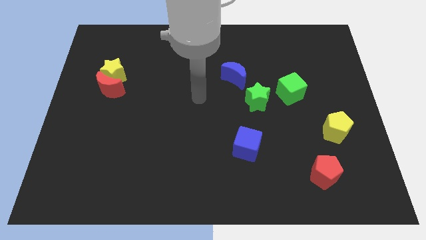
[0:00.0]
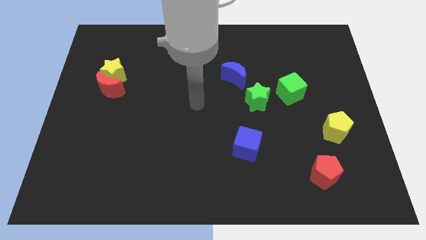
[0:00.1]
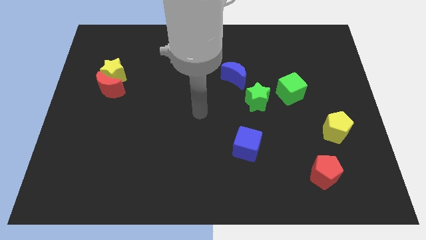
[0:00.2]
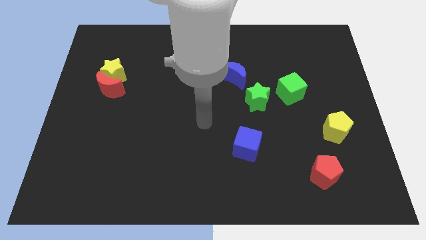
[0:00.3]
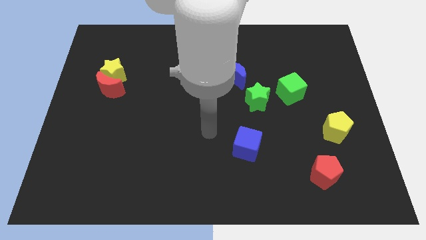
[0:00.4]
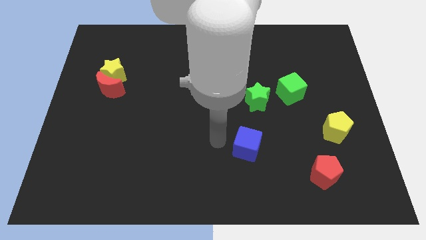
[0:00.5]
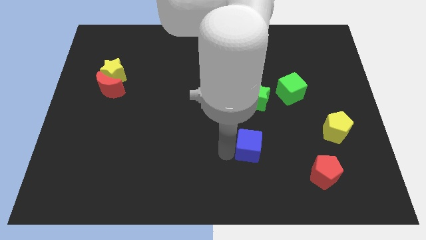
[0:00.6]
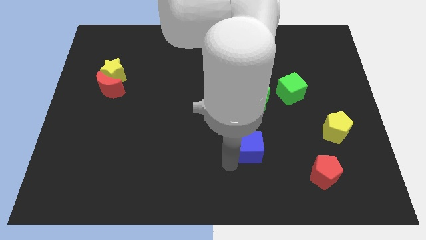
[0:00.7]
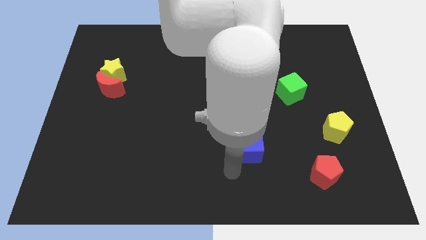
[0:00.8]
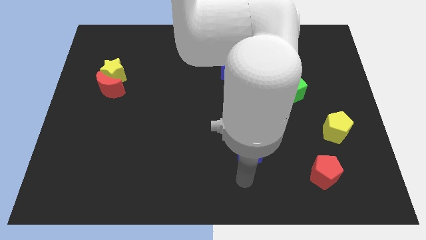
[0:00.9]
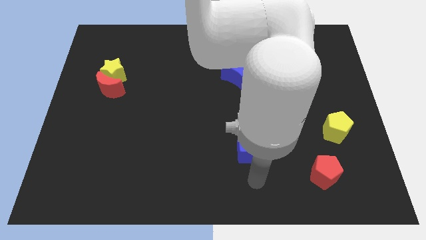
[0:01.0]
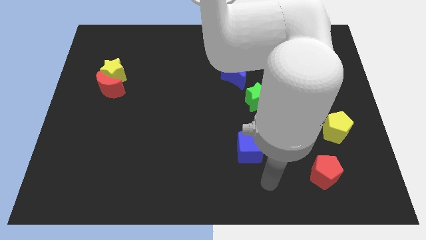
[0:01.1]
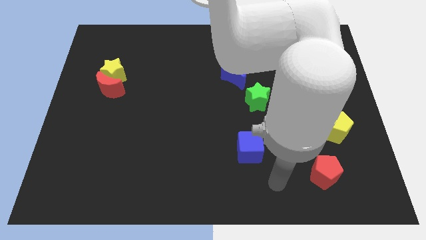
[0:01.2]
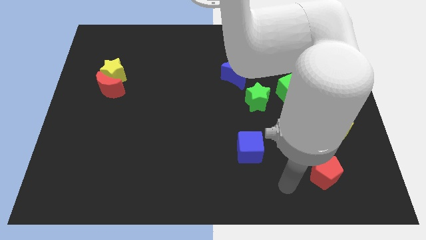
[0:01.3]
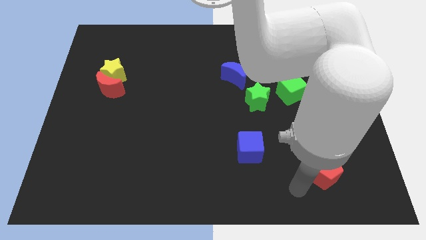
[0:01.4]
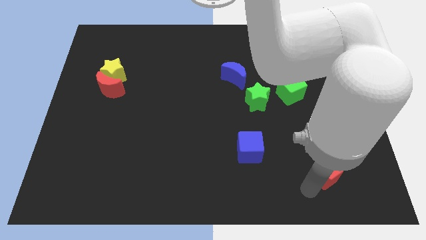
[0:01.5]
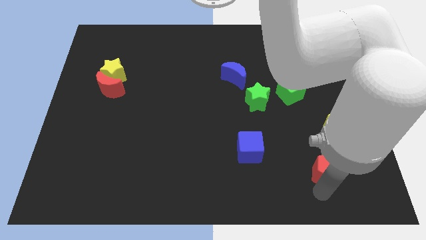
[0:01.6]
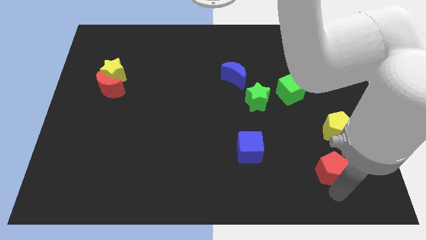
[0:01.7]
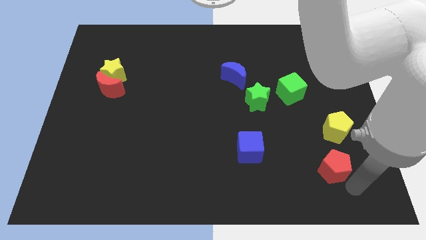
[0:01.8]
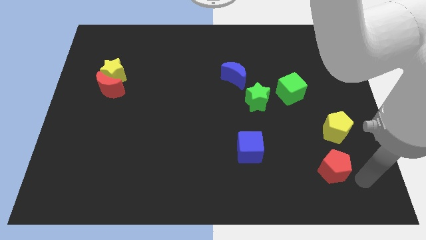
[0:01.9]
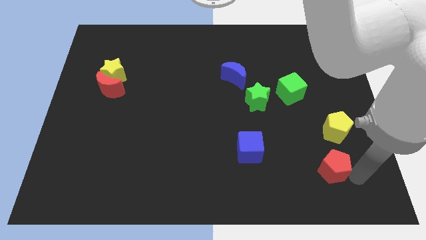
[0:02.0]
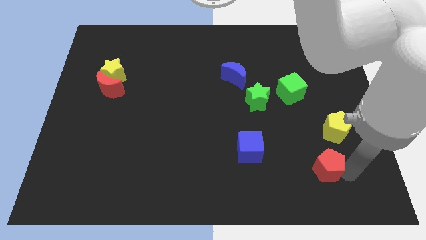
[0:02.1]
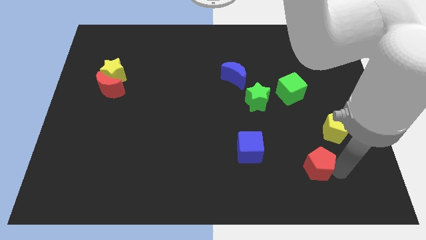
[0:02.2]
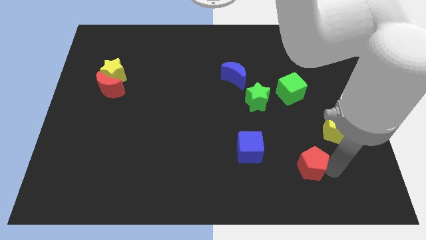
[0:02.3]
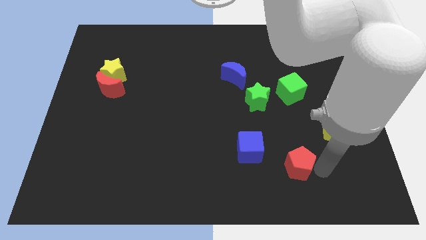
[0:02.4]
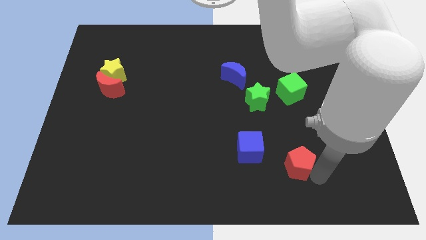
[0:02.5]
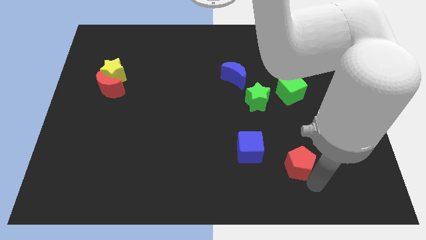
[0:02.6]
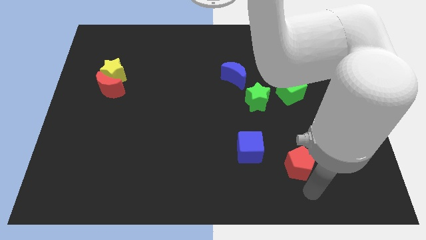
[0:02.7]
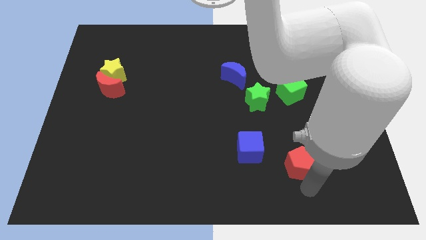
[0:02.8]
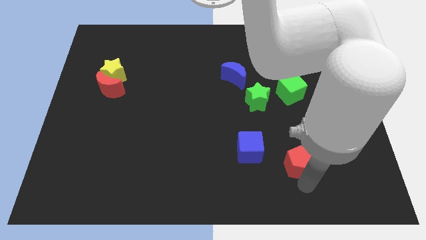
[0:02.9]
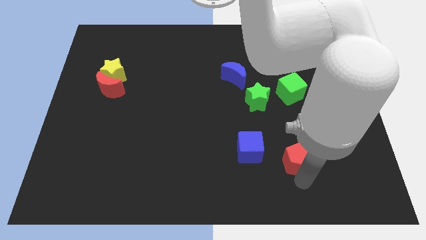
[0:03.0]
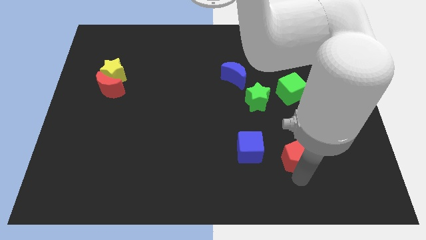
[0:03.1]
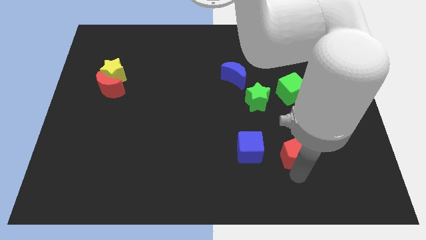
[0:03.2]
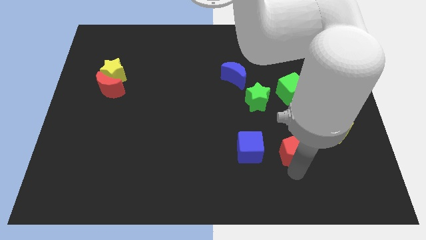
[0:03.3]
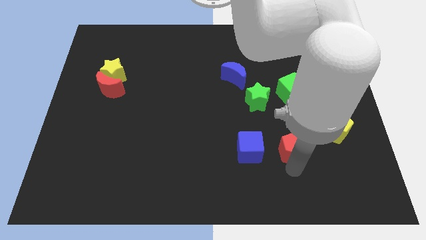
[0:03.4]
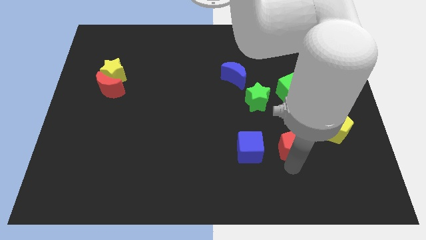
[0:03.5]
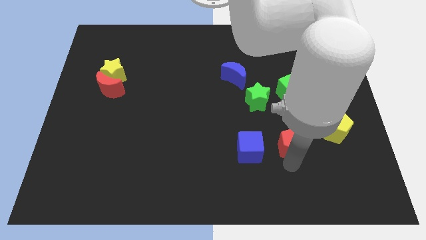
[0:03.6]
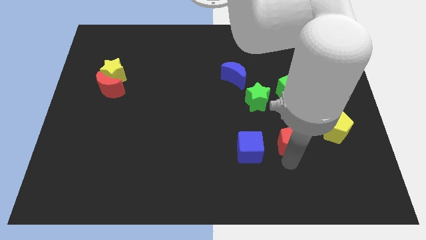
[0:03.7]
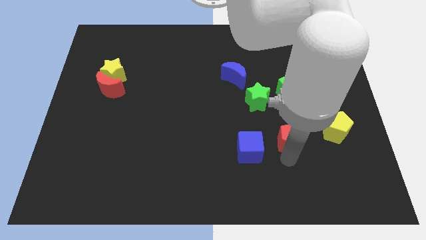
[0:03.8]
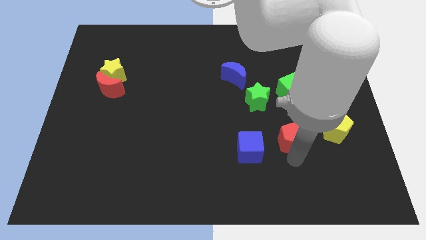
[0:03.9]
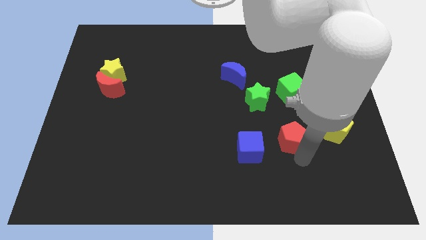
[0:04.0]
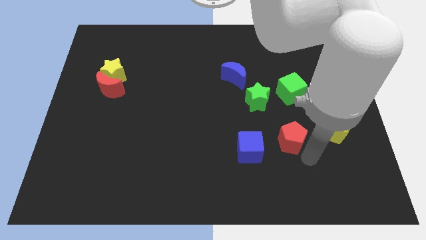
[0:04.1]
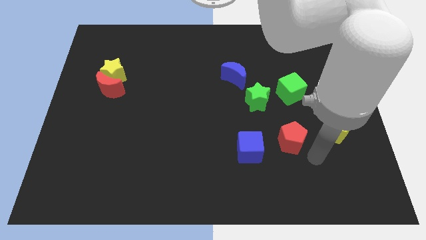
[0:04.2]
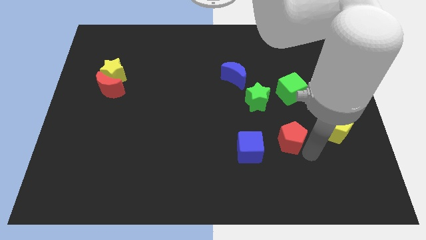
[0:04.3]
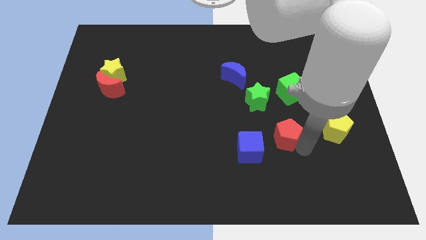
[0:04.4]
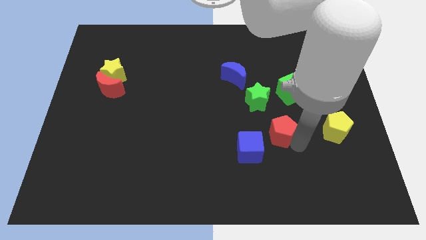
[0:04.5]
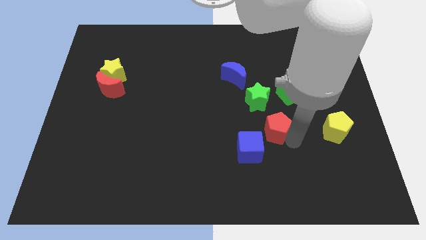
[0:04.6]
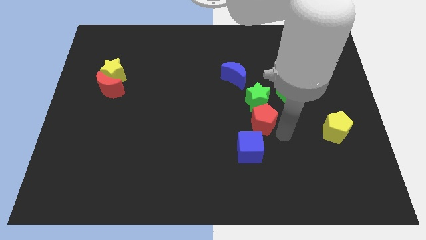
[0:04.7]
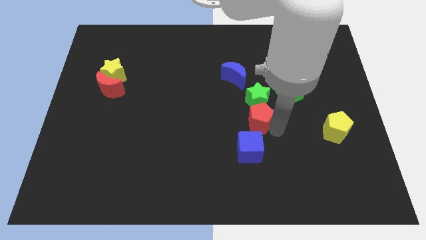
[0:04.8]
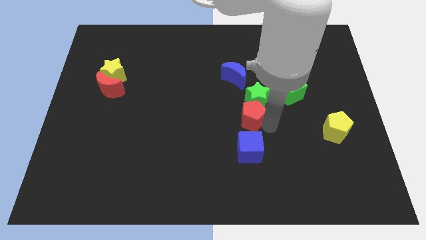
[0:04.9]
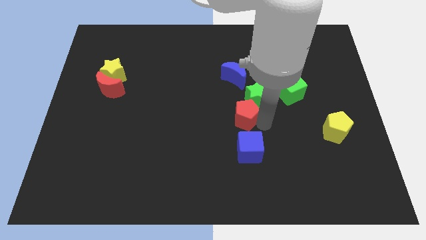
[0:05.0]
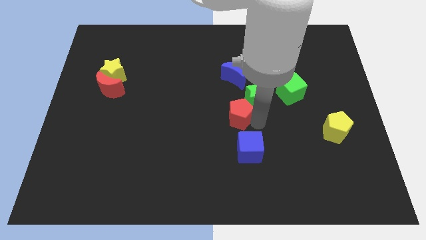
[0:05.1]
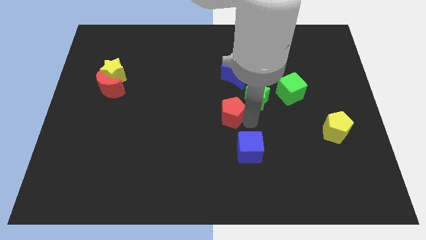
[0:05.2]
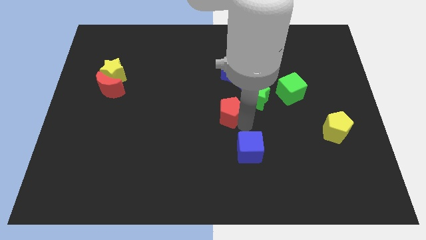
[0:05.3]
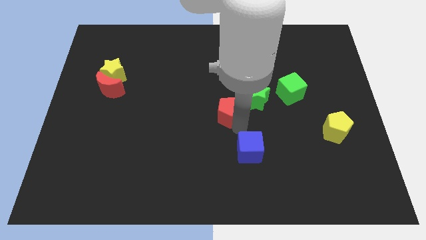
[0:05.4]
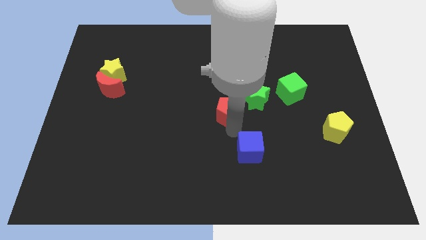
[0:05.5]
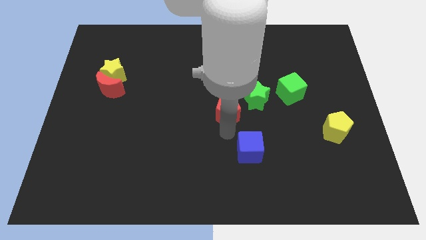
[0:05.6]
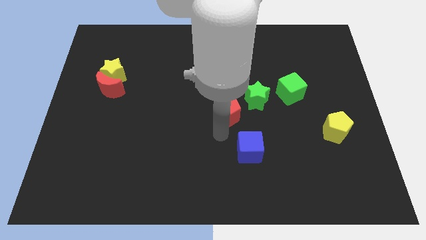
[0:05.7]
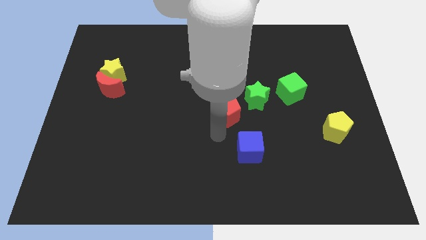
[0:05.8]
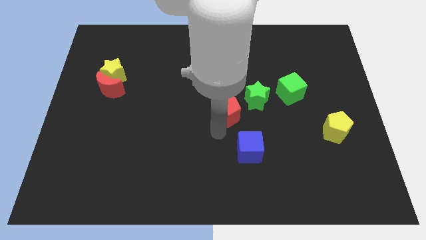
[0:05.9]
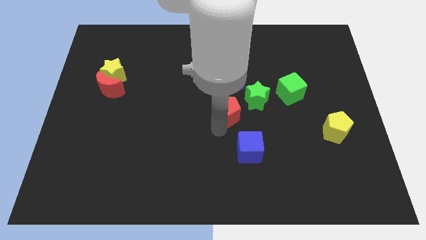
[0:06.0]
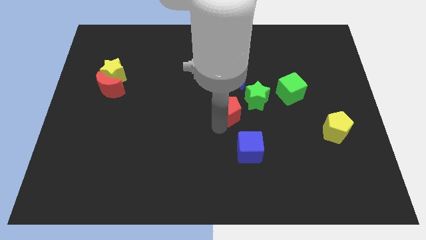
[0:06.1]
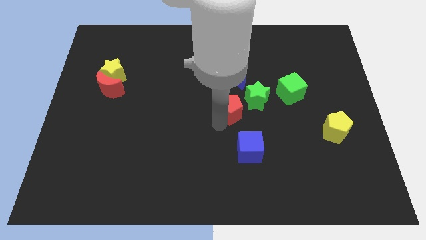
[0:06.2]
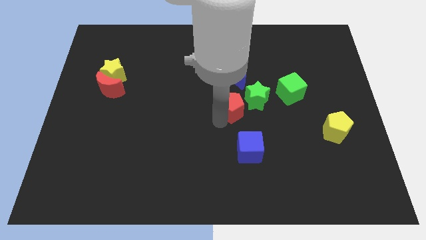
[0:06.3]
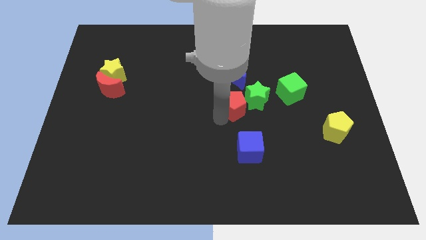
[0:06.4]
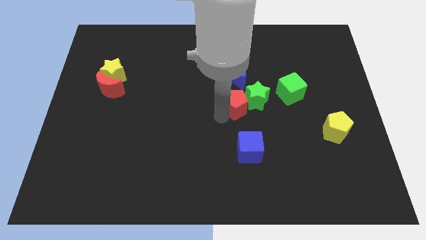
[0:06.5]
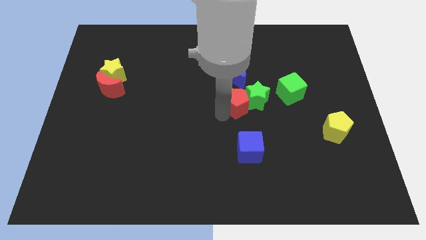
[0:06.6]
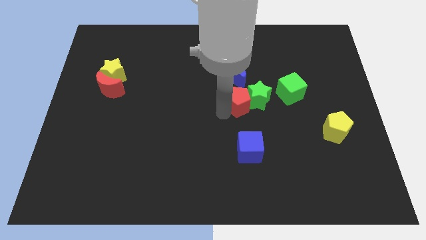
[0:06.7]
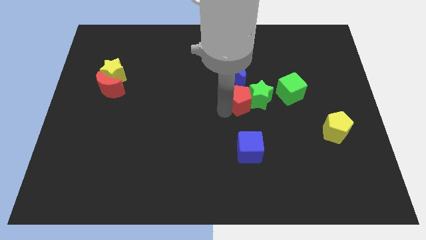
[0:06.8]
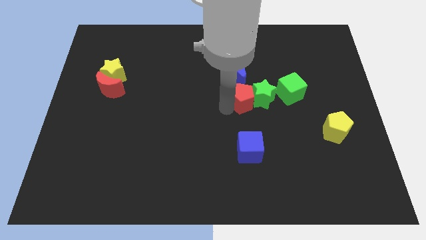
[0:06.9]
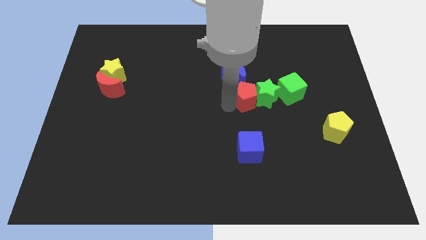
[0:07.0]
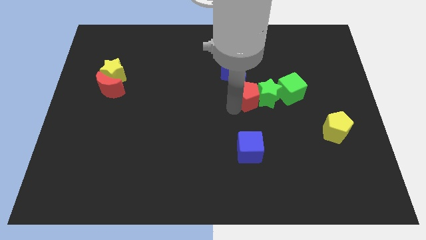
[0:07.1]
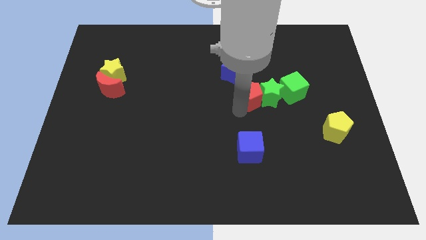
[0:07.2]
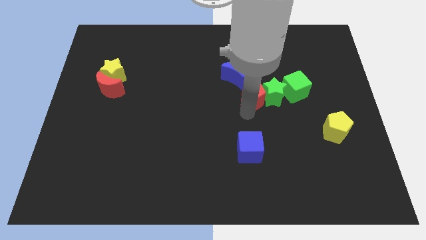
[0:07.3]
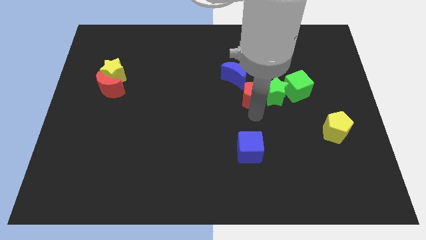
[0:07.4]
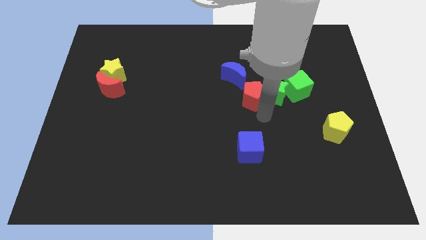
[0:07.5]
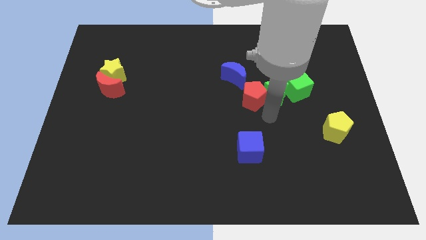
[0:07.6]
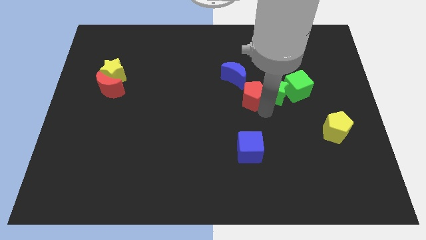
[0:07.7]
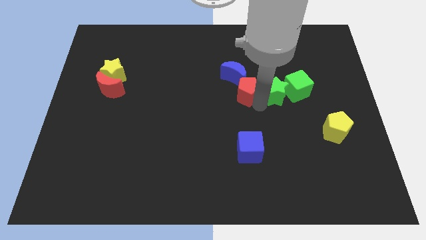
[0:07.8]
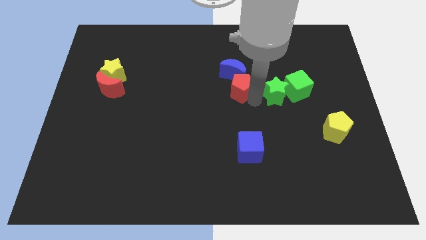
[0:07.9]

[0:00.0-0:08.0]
slide the red pentagon towards the blue moon
